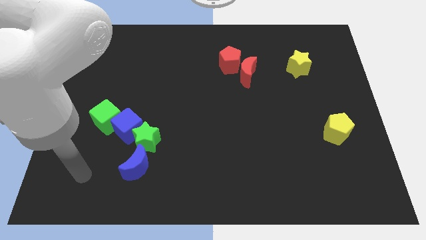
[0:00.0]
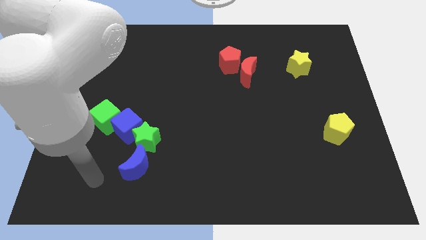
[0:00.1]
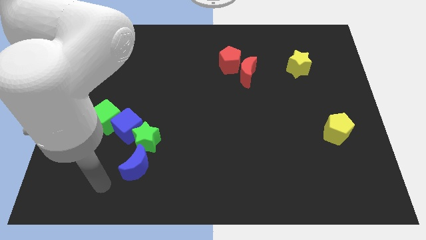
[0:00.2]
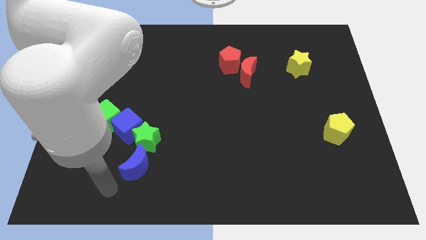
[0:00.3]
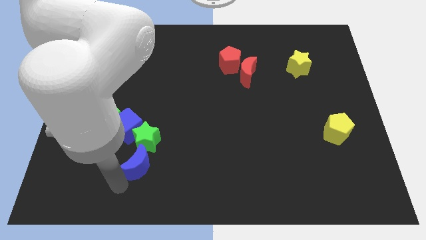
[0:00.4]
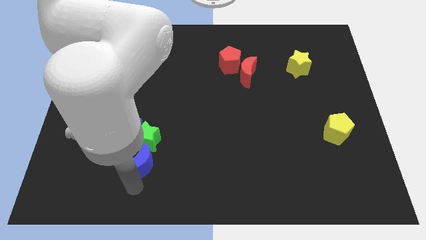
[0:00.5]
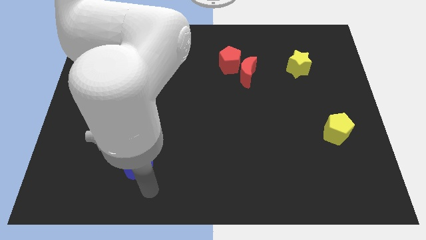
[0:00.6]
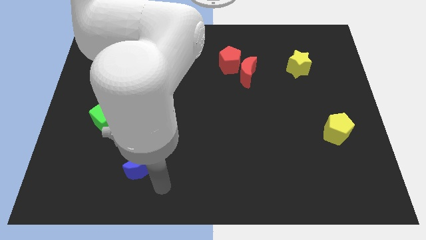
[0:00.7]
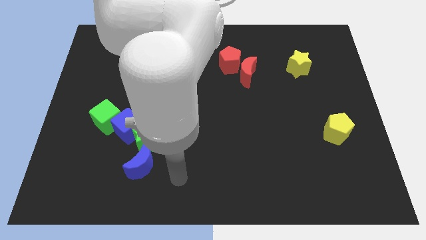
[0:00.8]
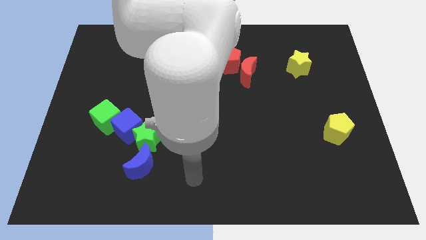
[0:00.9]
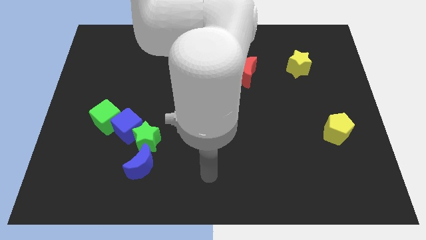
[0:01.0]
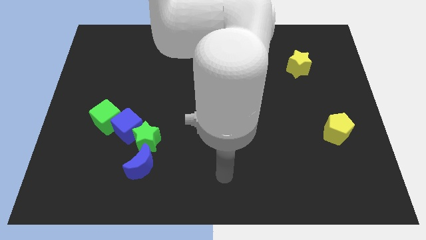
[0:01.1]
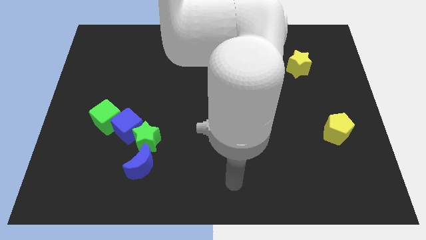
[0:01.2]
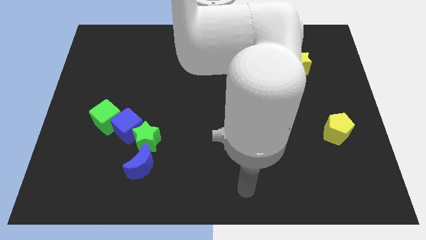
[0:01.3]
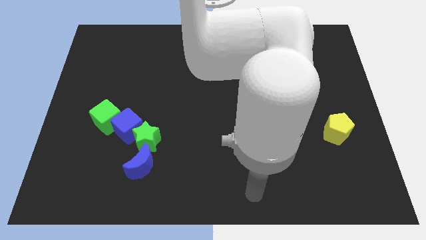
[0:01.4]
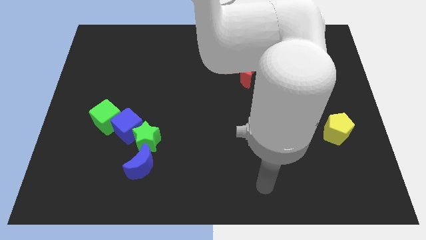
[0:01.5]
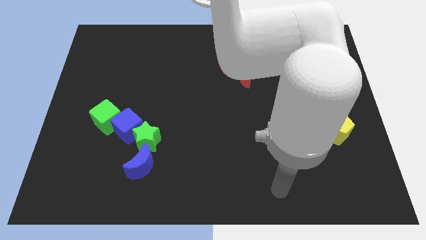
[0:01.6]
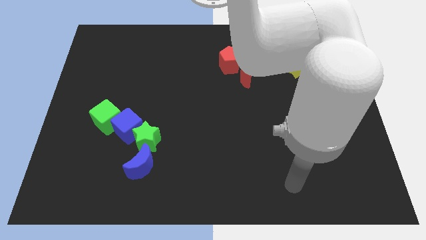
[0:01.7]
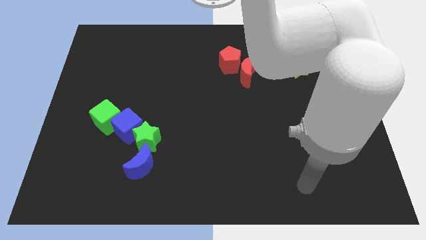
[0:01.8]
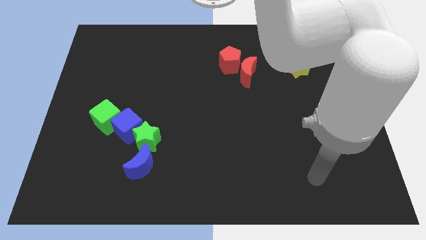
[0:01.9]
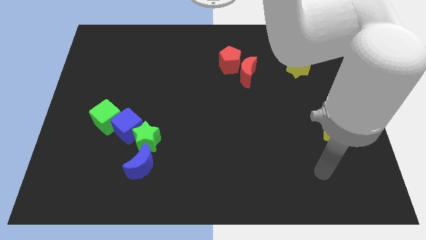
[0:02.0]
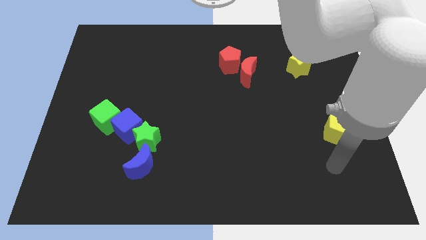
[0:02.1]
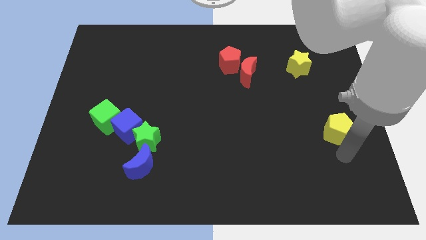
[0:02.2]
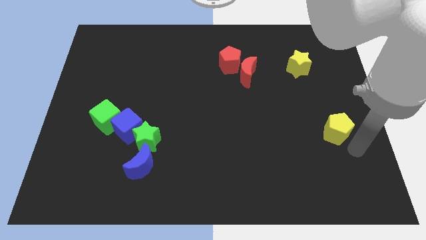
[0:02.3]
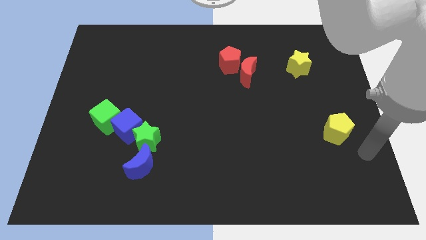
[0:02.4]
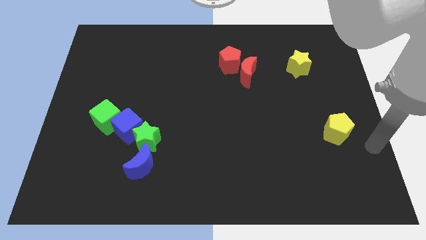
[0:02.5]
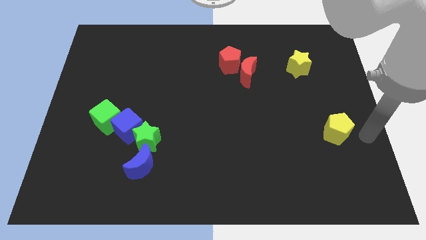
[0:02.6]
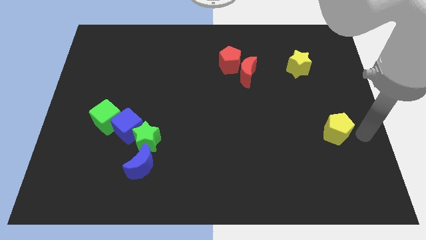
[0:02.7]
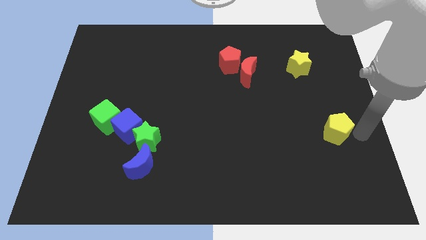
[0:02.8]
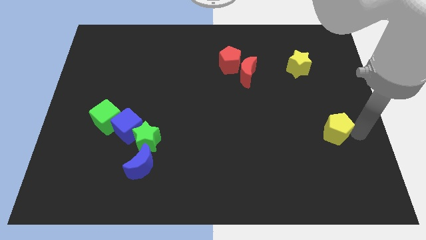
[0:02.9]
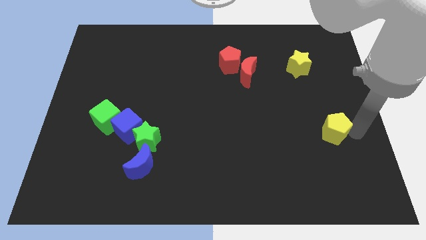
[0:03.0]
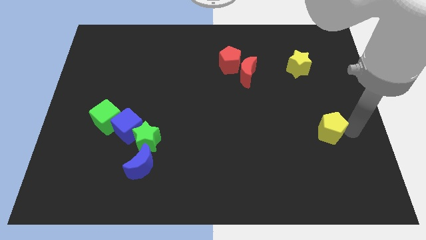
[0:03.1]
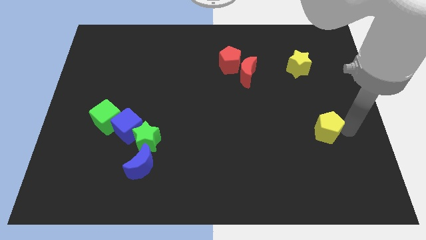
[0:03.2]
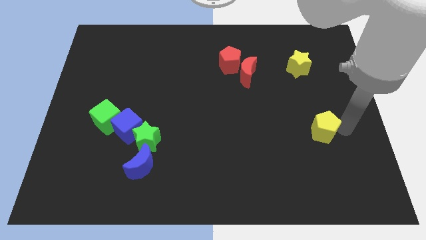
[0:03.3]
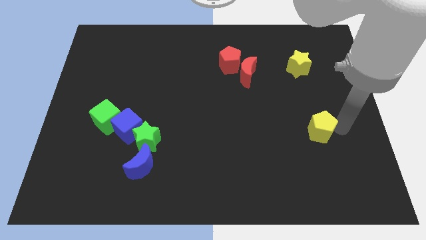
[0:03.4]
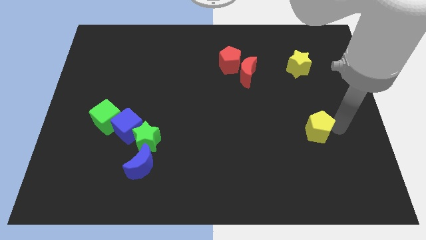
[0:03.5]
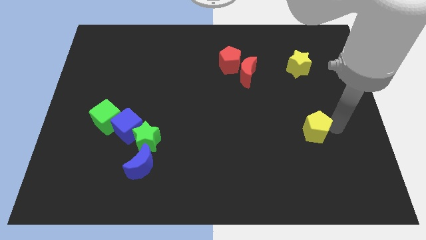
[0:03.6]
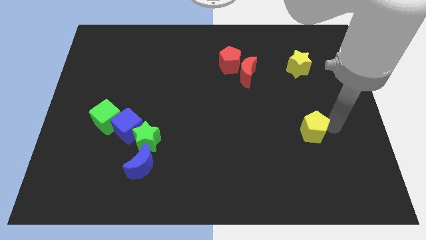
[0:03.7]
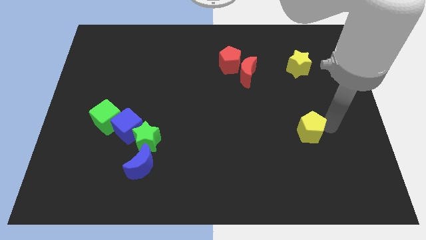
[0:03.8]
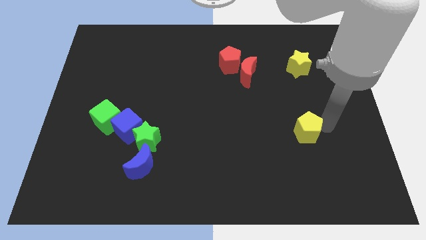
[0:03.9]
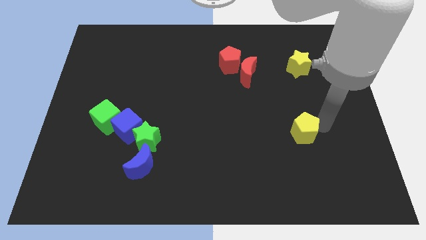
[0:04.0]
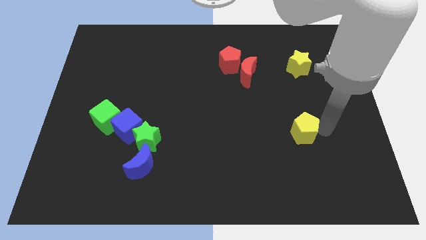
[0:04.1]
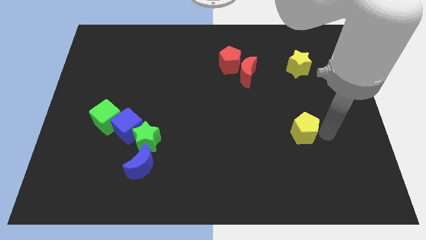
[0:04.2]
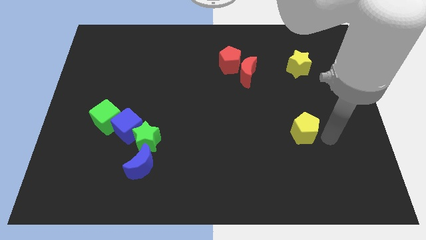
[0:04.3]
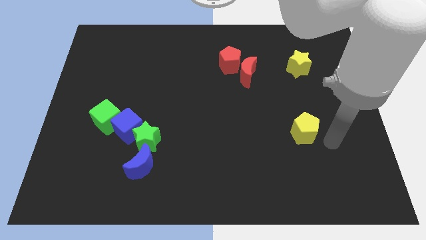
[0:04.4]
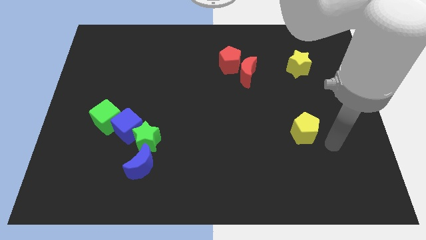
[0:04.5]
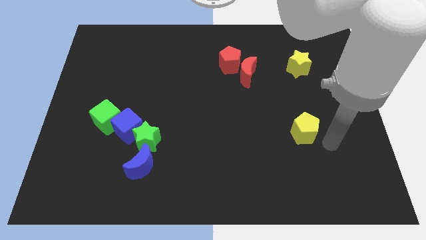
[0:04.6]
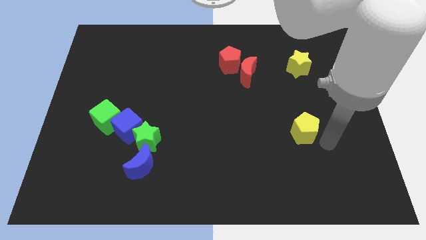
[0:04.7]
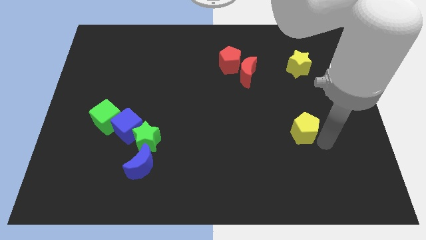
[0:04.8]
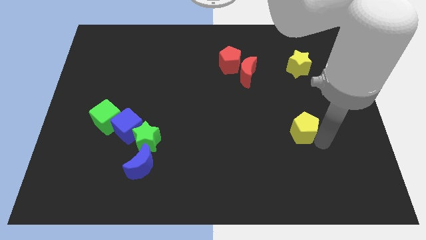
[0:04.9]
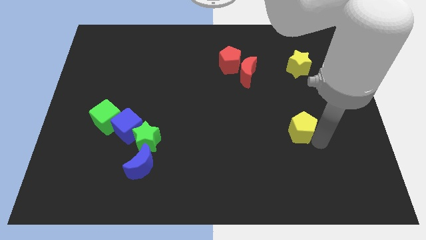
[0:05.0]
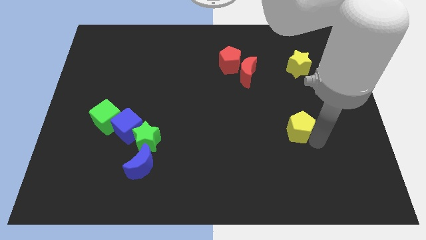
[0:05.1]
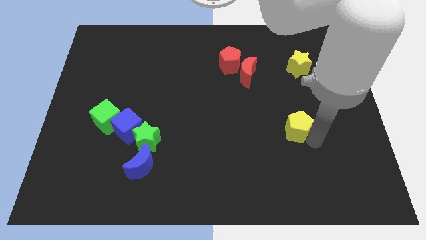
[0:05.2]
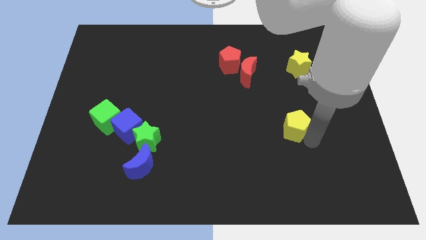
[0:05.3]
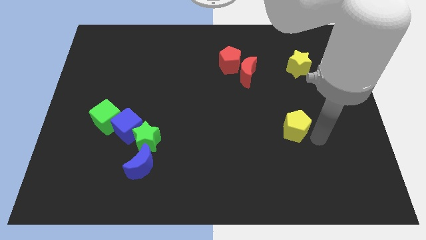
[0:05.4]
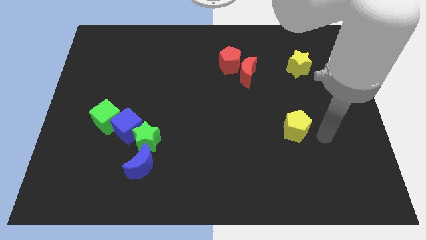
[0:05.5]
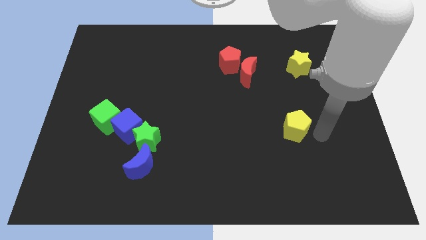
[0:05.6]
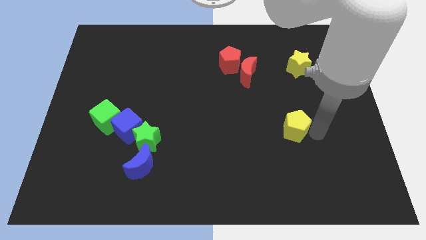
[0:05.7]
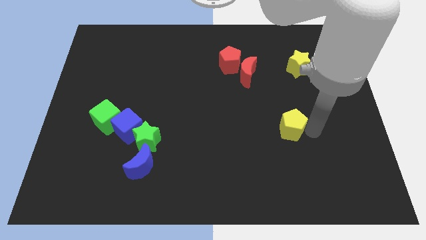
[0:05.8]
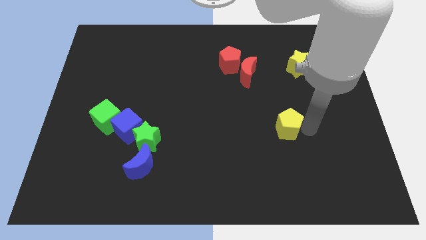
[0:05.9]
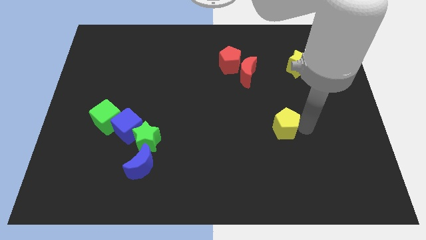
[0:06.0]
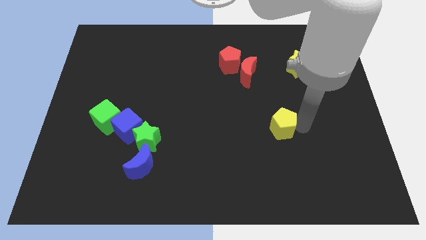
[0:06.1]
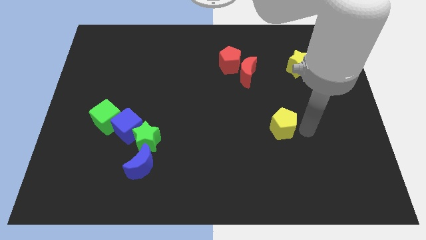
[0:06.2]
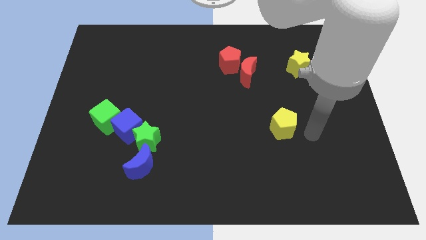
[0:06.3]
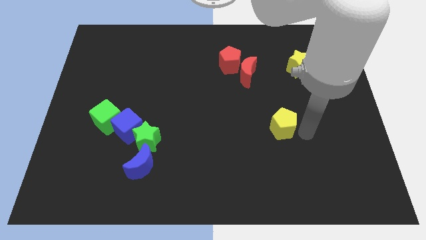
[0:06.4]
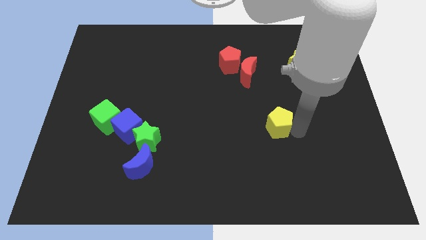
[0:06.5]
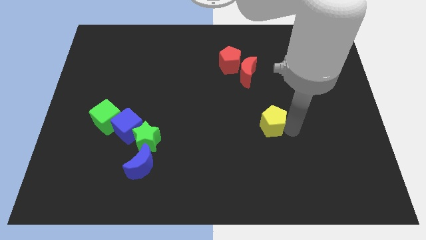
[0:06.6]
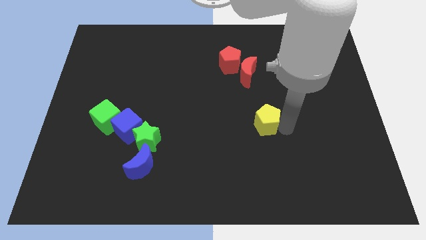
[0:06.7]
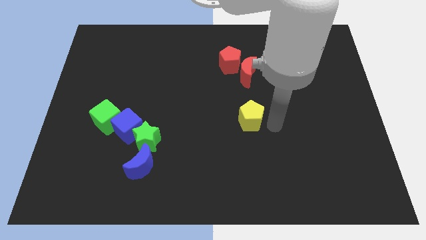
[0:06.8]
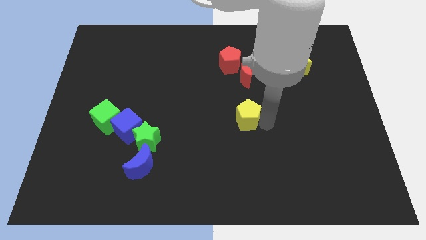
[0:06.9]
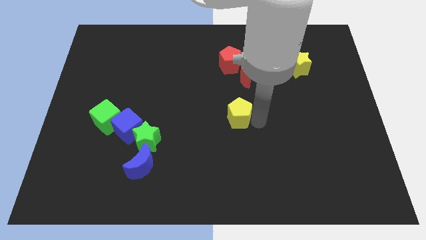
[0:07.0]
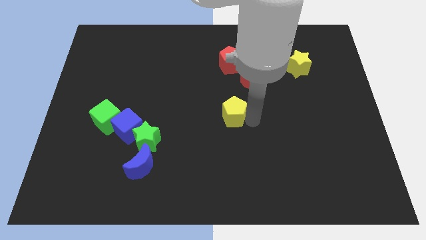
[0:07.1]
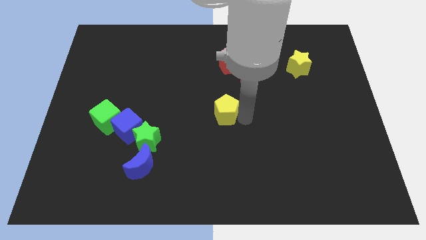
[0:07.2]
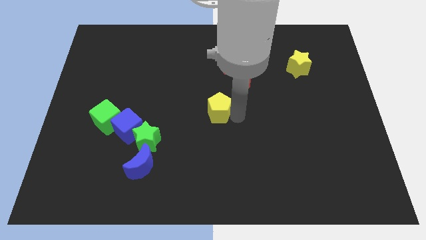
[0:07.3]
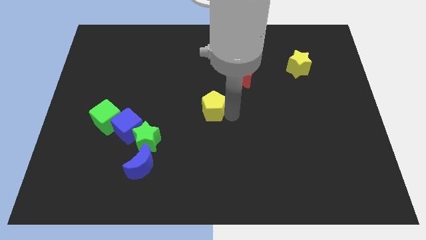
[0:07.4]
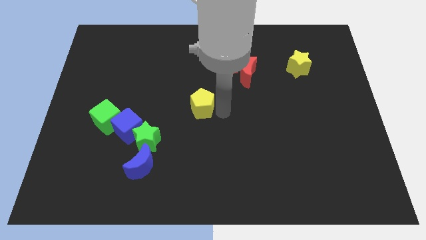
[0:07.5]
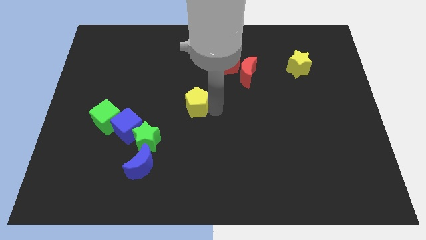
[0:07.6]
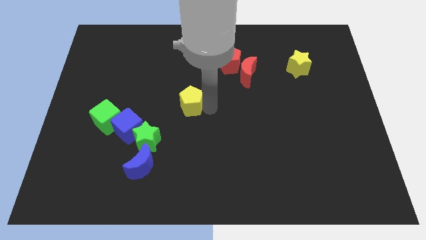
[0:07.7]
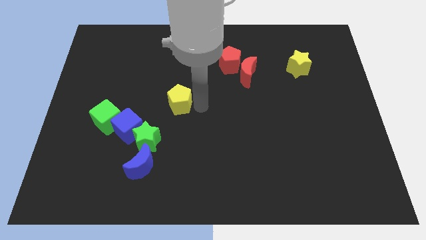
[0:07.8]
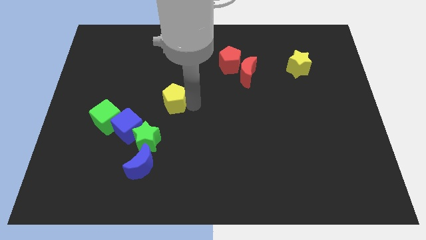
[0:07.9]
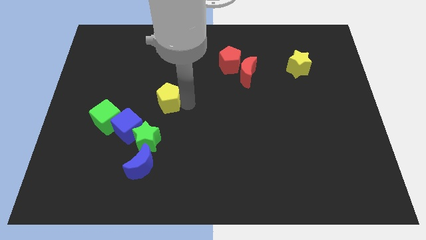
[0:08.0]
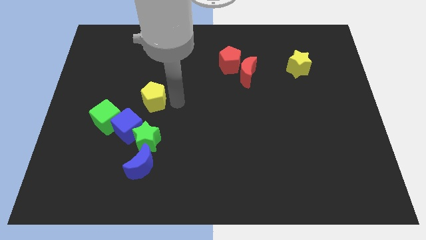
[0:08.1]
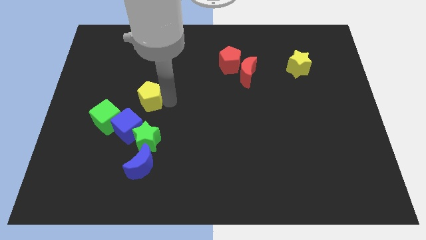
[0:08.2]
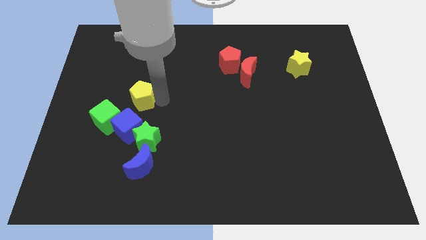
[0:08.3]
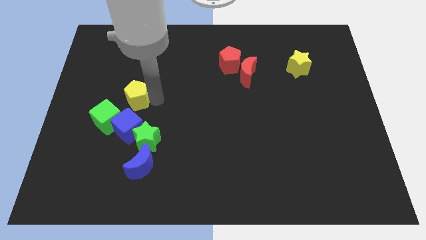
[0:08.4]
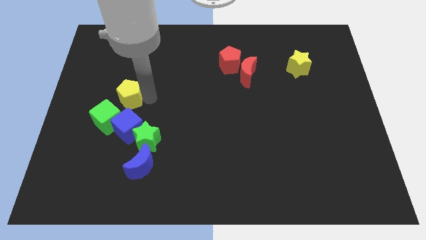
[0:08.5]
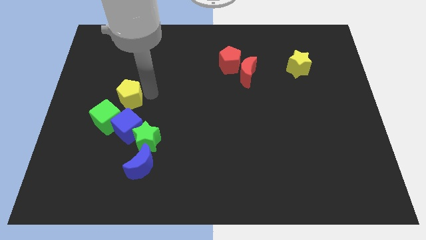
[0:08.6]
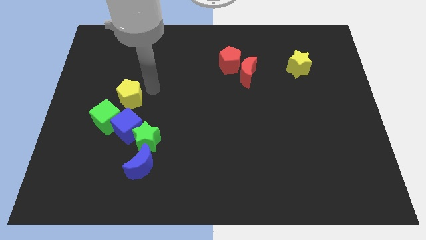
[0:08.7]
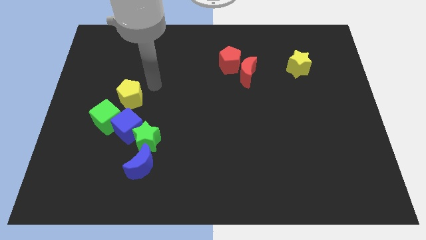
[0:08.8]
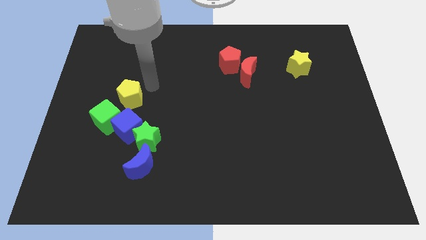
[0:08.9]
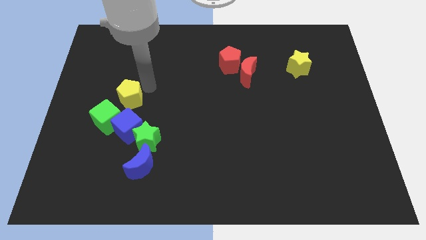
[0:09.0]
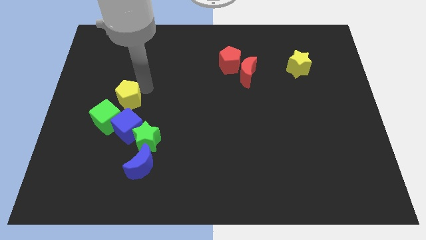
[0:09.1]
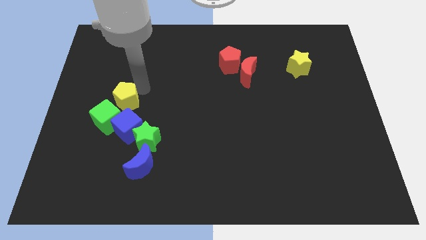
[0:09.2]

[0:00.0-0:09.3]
slide the yellow pentagon to the top left side of the blue cube
